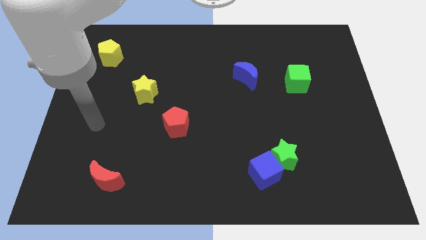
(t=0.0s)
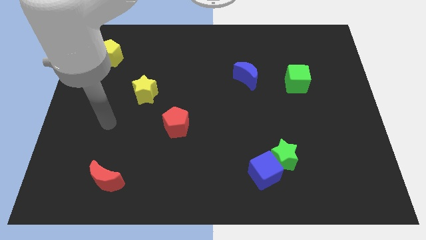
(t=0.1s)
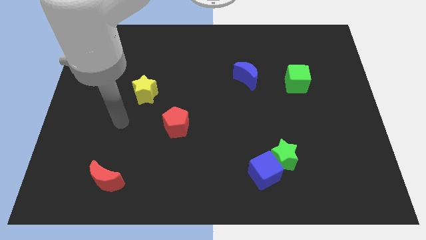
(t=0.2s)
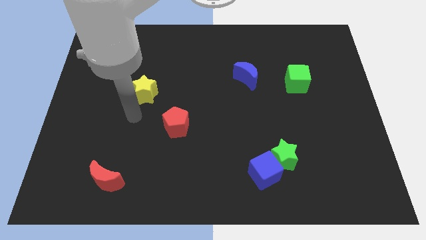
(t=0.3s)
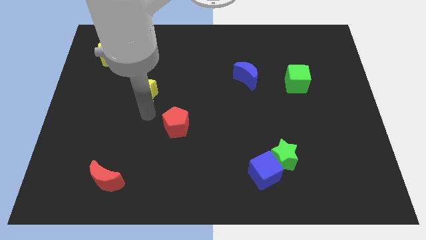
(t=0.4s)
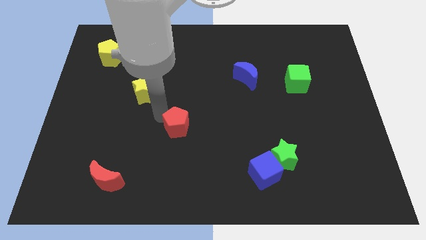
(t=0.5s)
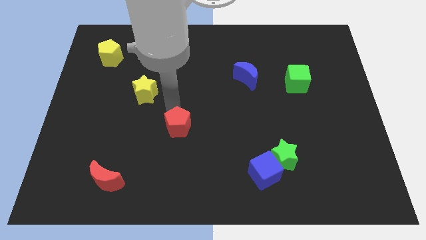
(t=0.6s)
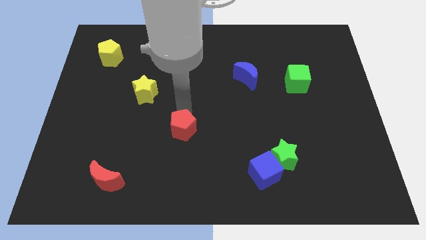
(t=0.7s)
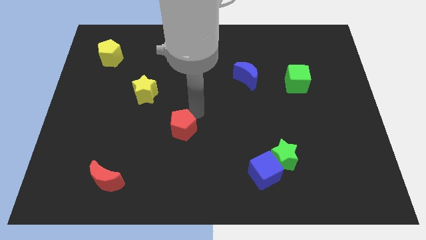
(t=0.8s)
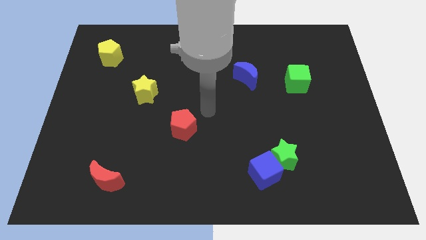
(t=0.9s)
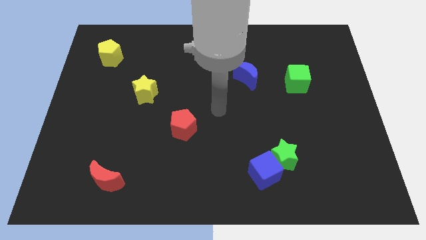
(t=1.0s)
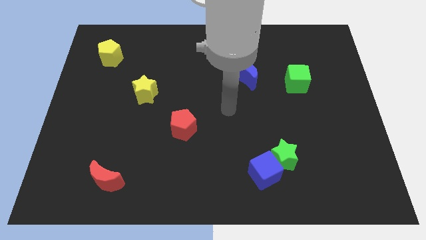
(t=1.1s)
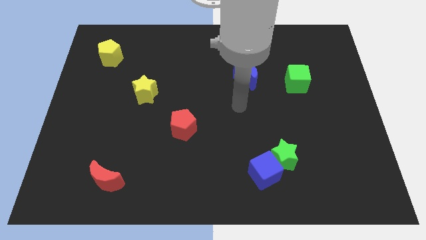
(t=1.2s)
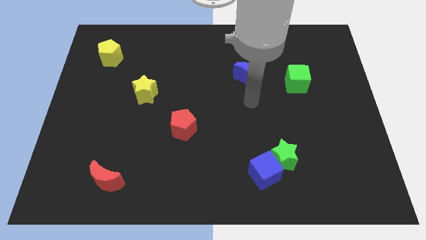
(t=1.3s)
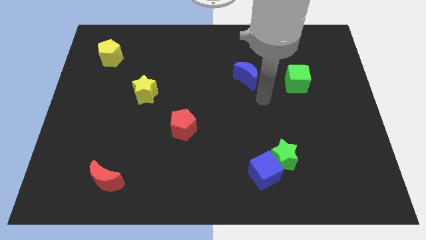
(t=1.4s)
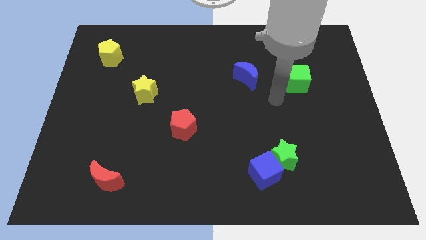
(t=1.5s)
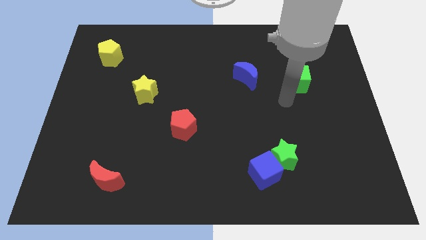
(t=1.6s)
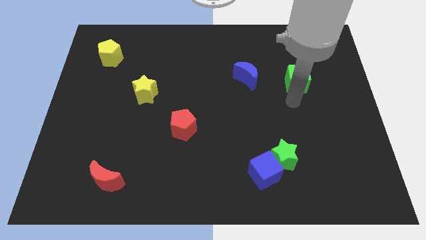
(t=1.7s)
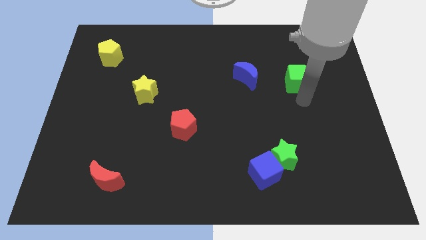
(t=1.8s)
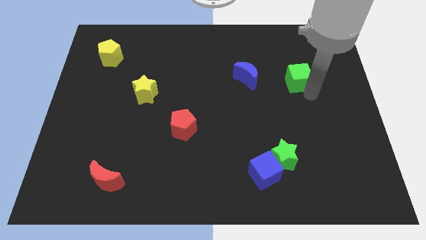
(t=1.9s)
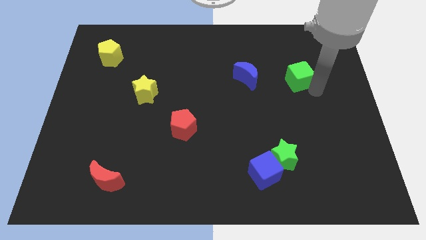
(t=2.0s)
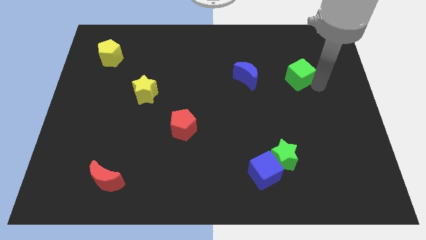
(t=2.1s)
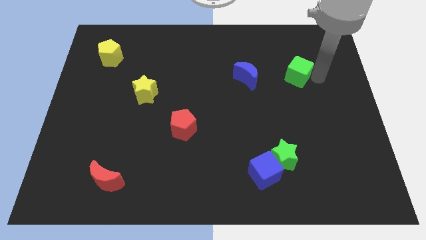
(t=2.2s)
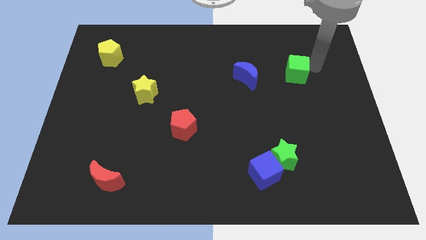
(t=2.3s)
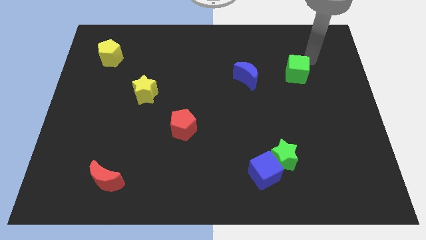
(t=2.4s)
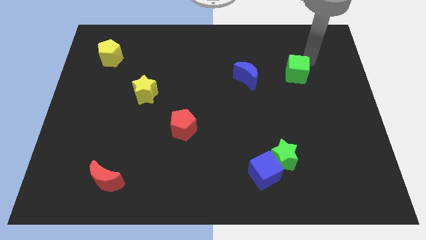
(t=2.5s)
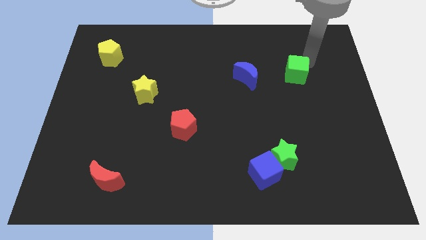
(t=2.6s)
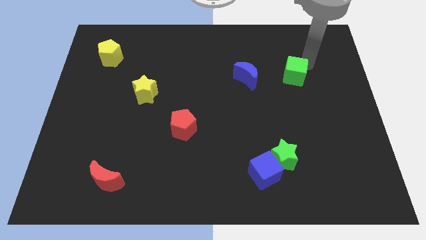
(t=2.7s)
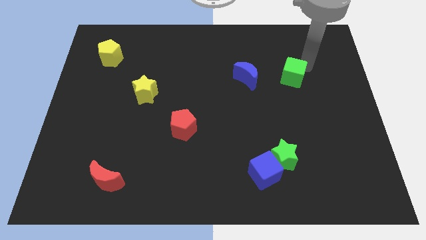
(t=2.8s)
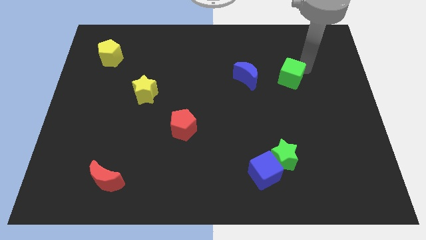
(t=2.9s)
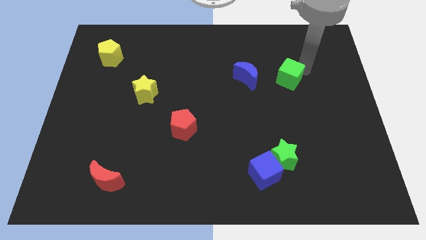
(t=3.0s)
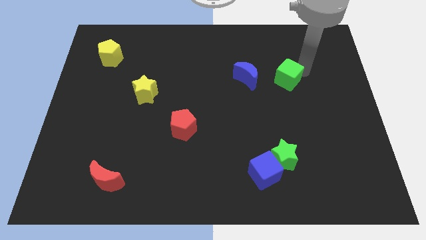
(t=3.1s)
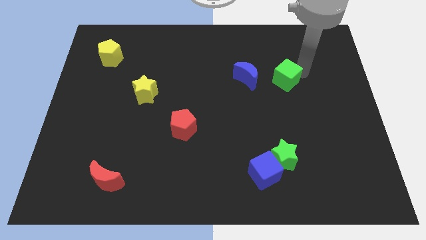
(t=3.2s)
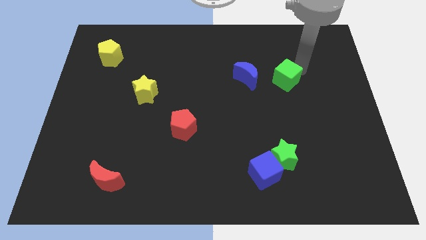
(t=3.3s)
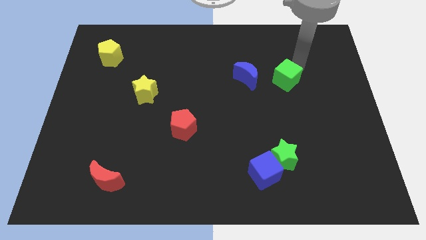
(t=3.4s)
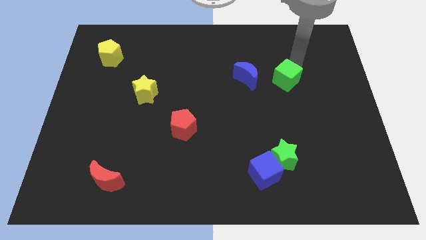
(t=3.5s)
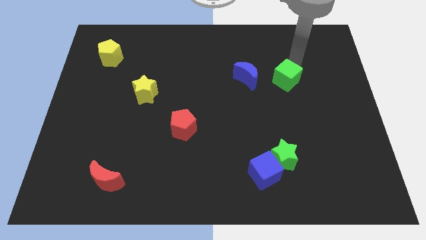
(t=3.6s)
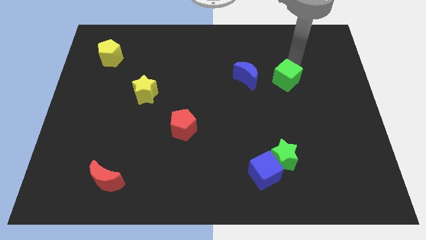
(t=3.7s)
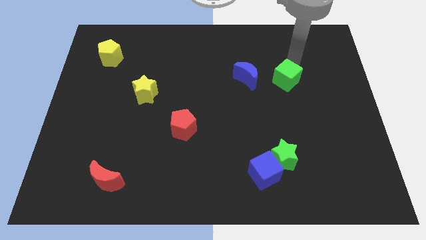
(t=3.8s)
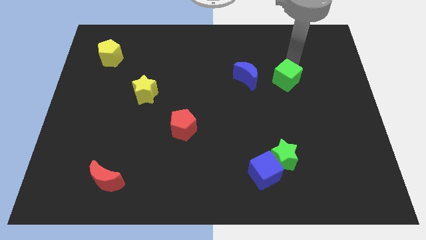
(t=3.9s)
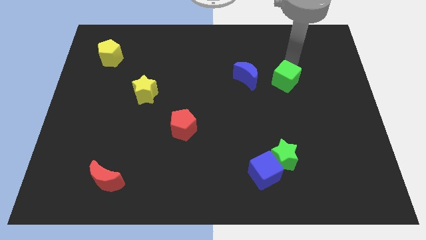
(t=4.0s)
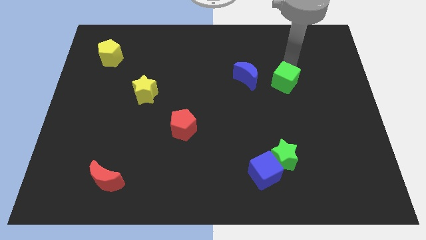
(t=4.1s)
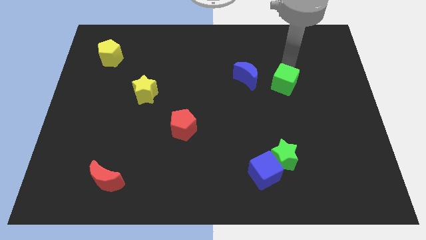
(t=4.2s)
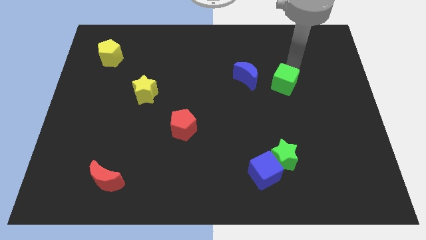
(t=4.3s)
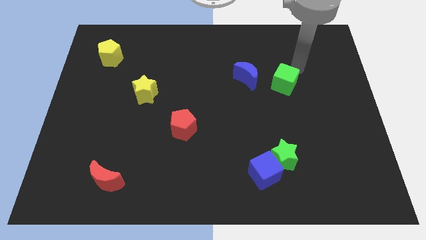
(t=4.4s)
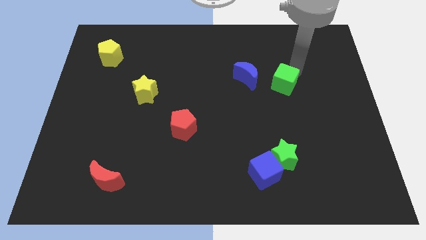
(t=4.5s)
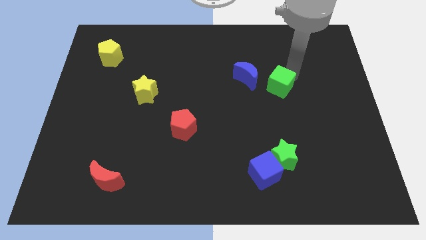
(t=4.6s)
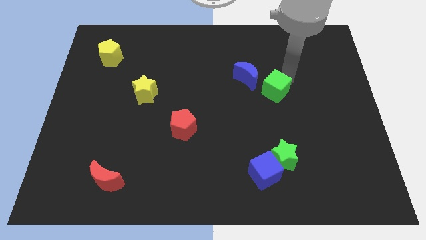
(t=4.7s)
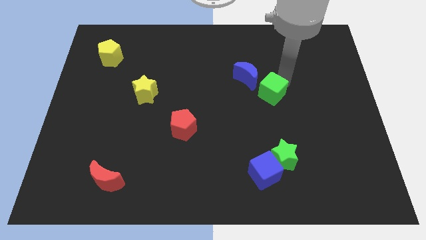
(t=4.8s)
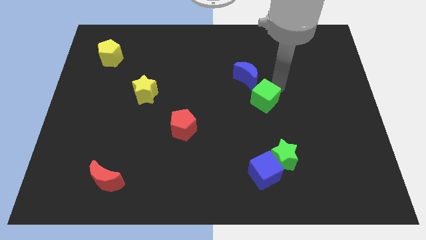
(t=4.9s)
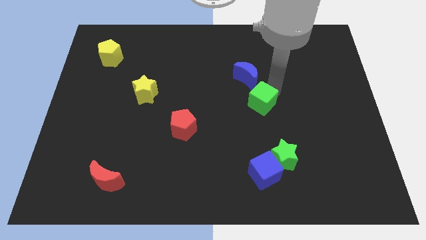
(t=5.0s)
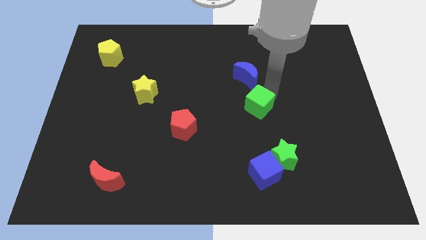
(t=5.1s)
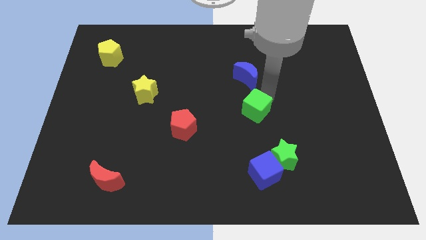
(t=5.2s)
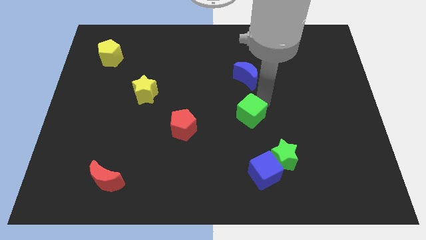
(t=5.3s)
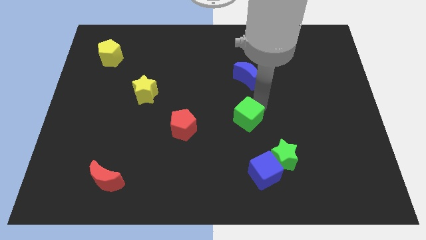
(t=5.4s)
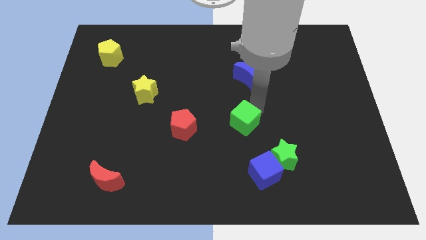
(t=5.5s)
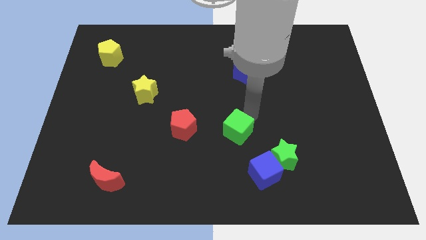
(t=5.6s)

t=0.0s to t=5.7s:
slide the green cube down and to the left diagonally

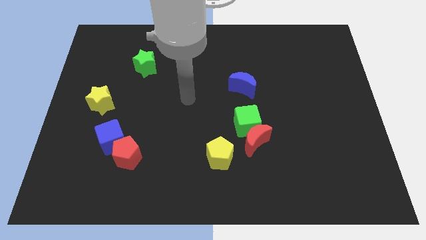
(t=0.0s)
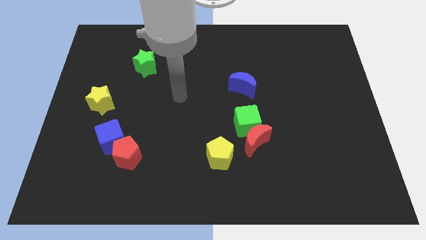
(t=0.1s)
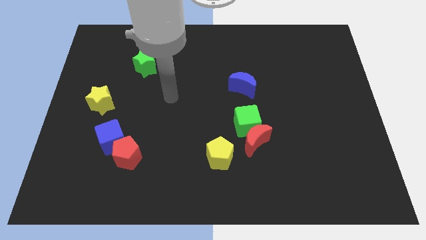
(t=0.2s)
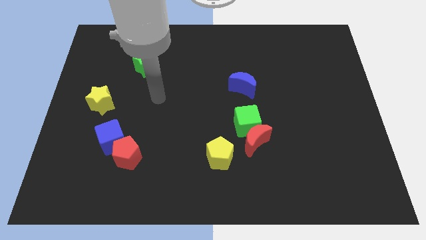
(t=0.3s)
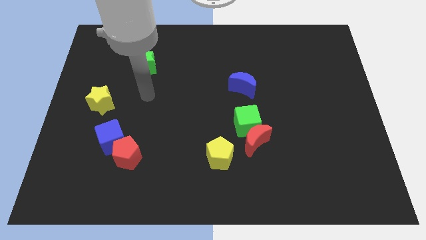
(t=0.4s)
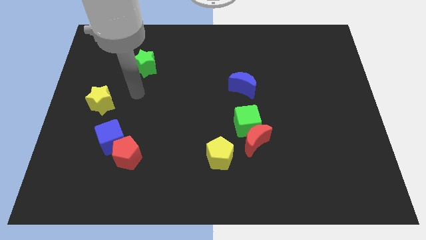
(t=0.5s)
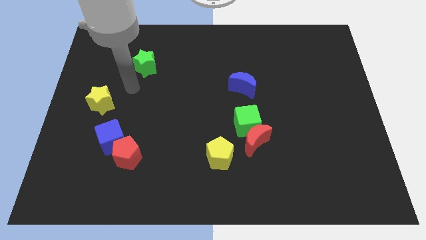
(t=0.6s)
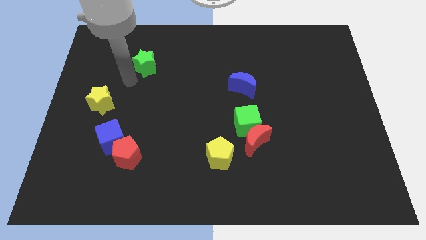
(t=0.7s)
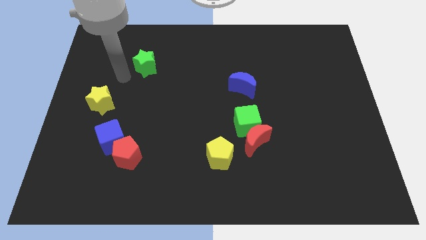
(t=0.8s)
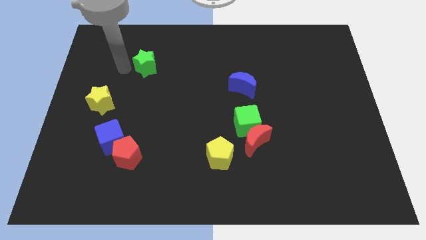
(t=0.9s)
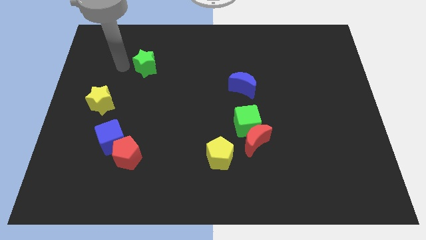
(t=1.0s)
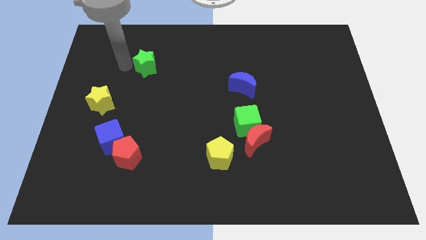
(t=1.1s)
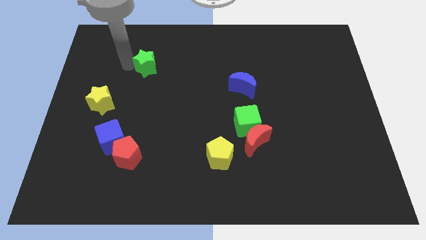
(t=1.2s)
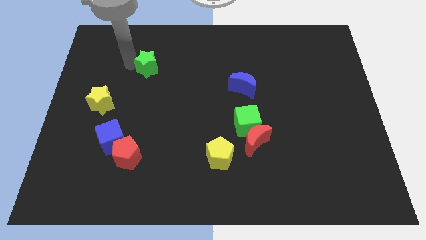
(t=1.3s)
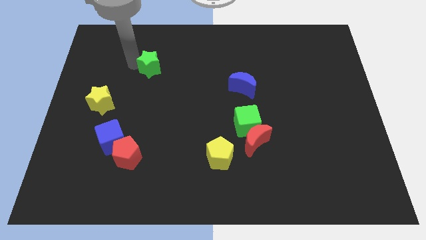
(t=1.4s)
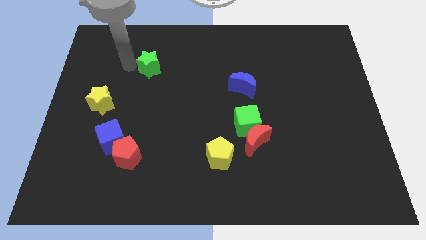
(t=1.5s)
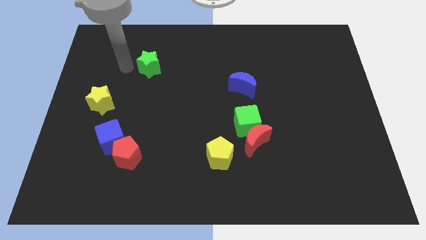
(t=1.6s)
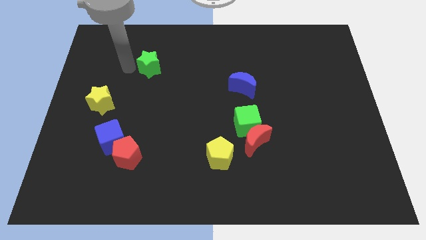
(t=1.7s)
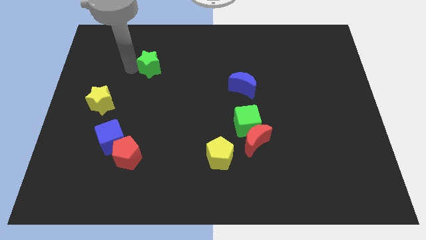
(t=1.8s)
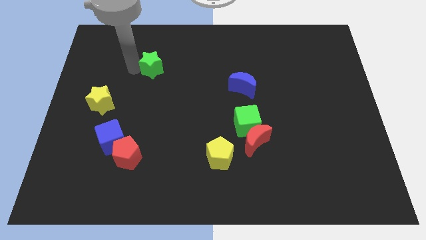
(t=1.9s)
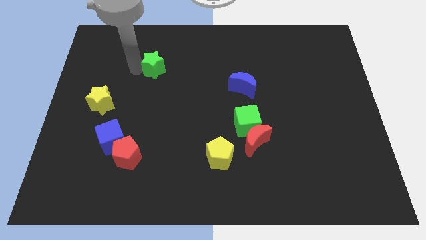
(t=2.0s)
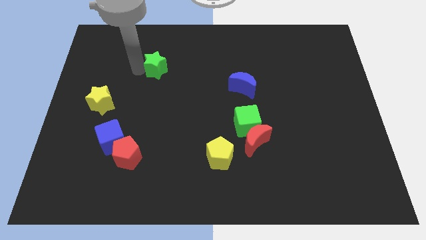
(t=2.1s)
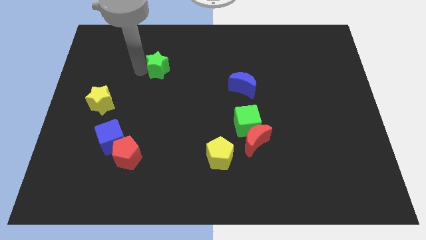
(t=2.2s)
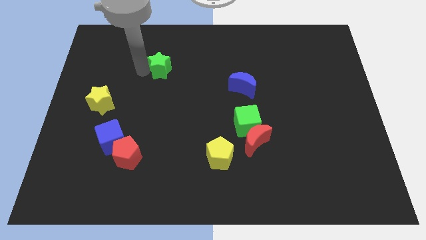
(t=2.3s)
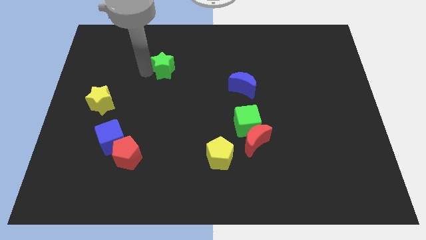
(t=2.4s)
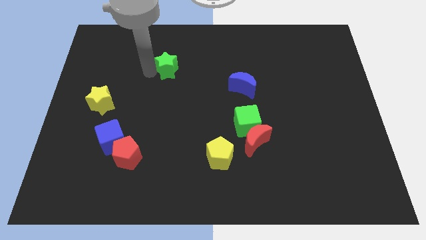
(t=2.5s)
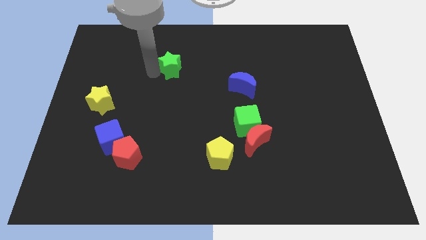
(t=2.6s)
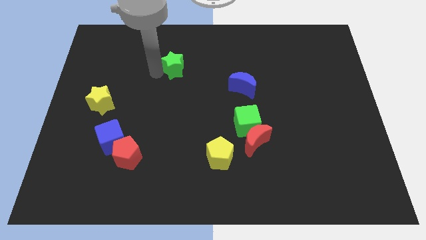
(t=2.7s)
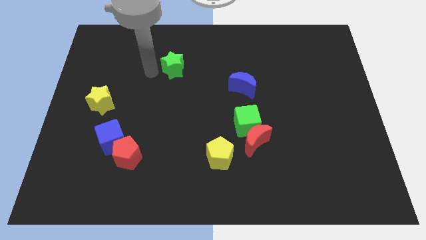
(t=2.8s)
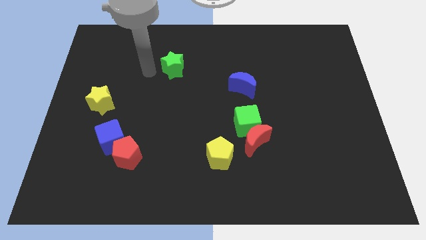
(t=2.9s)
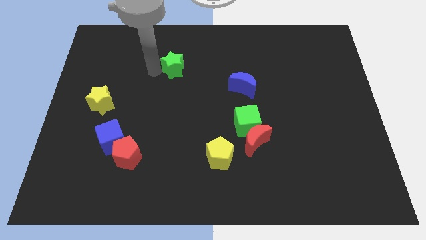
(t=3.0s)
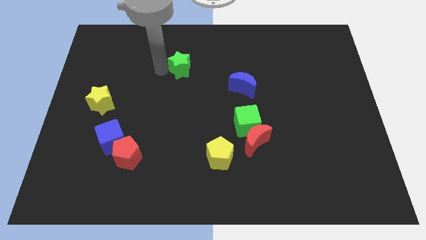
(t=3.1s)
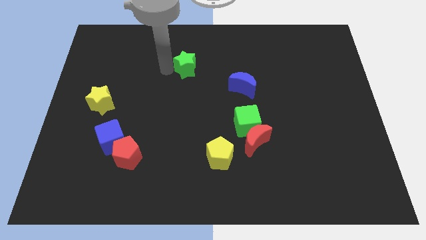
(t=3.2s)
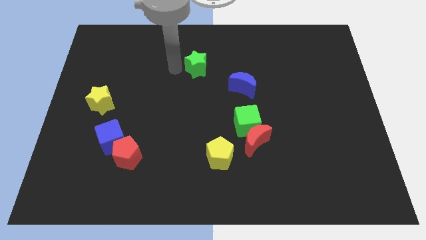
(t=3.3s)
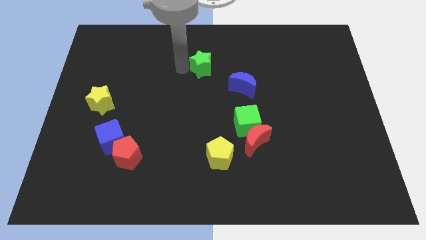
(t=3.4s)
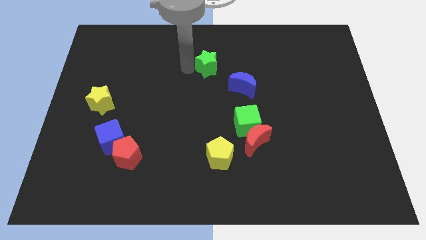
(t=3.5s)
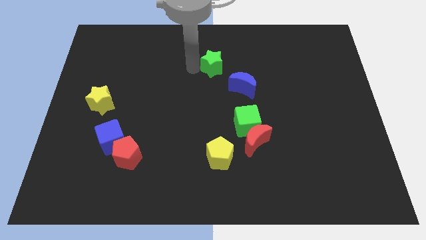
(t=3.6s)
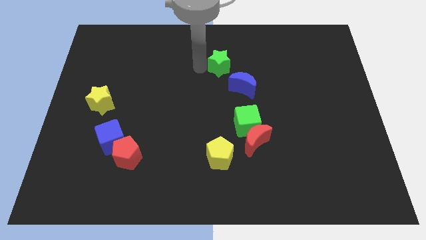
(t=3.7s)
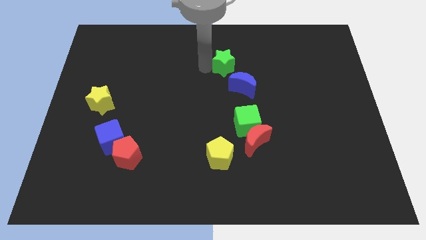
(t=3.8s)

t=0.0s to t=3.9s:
push the green star right
